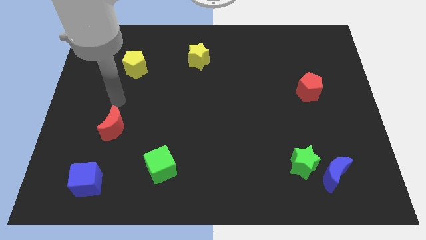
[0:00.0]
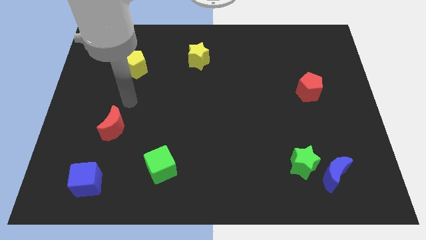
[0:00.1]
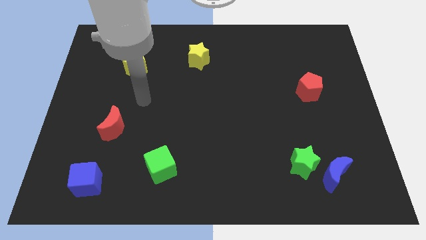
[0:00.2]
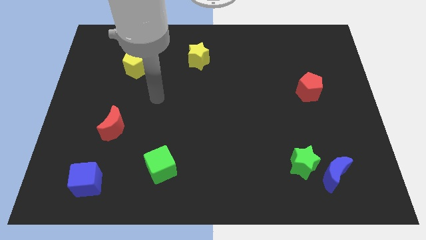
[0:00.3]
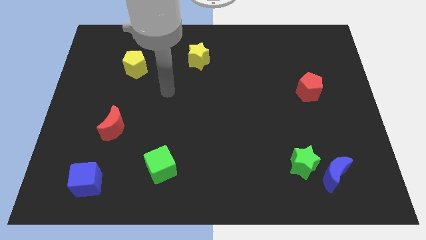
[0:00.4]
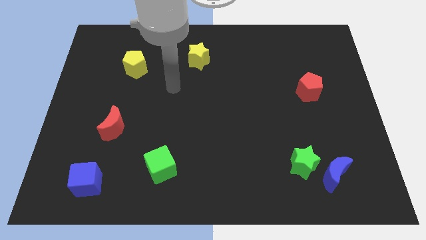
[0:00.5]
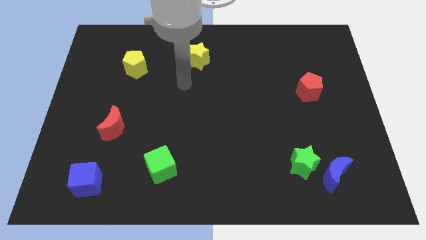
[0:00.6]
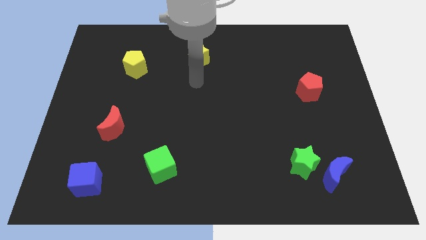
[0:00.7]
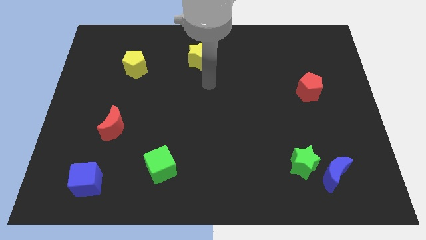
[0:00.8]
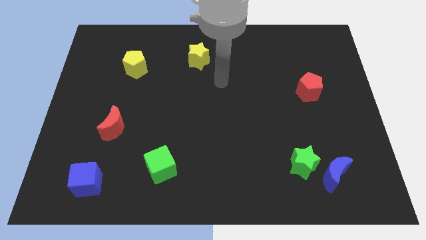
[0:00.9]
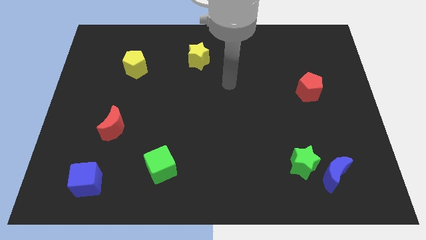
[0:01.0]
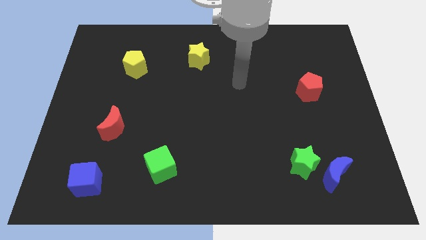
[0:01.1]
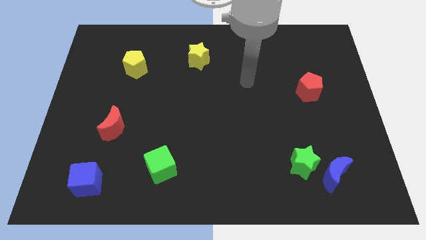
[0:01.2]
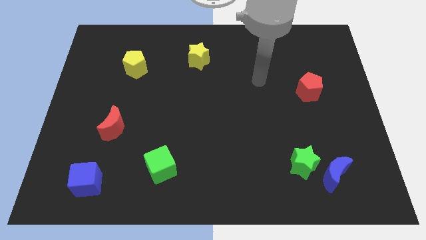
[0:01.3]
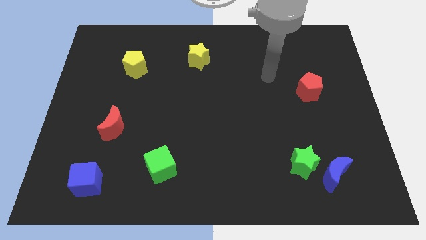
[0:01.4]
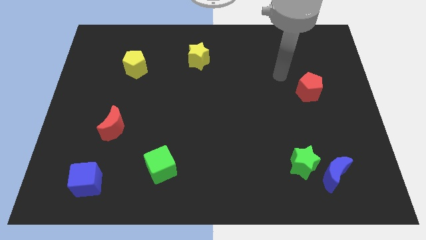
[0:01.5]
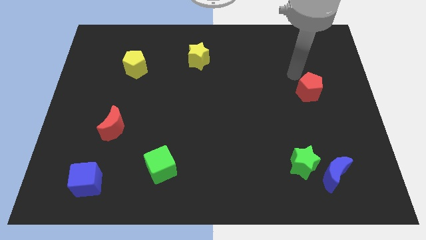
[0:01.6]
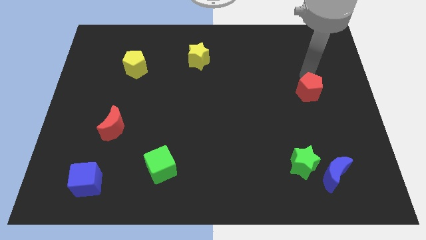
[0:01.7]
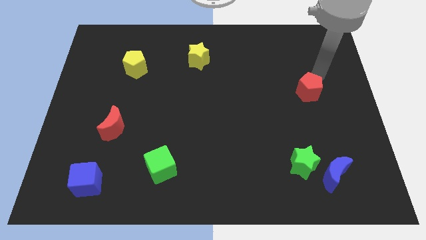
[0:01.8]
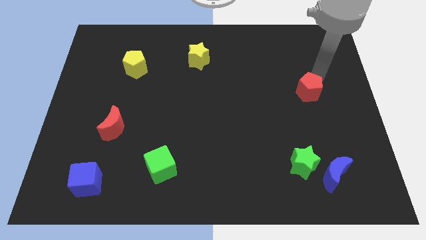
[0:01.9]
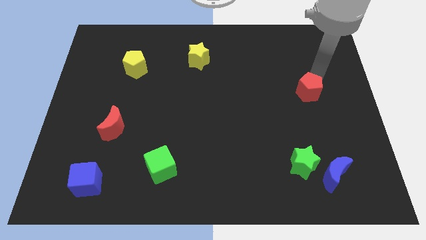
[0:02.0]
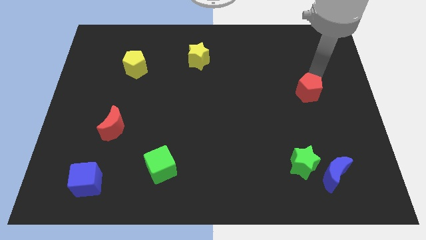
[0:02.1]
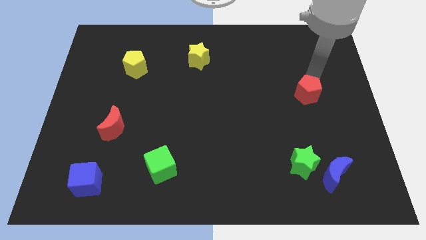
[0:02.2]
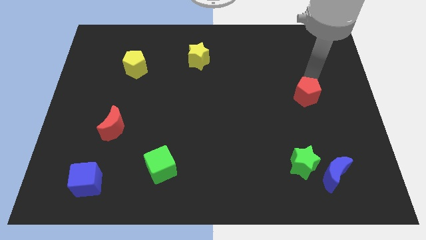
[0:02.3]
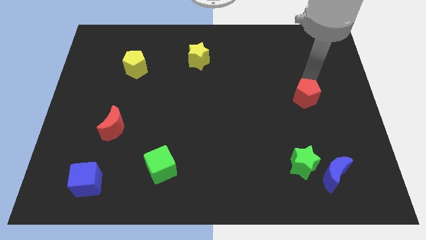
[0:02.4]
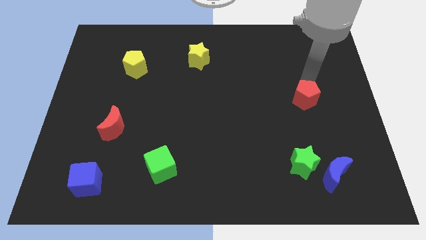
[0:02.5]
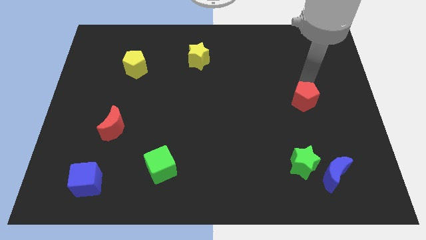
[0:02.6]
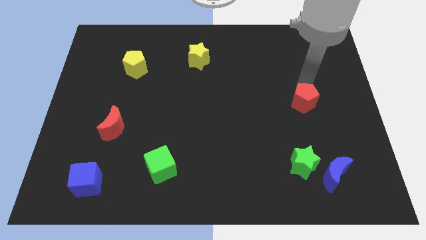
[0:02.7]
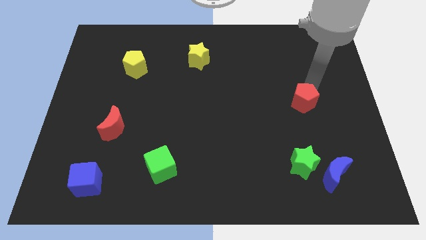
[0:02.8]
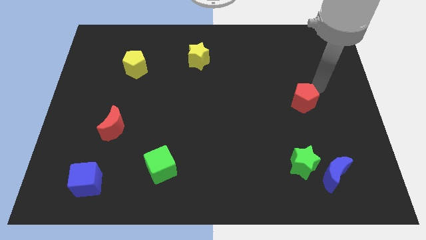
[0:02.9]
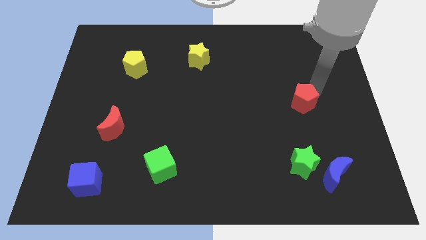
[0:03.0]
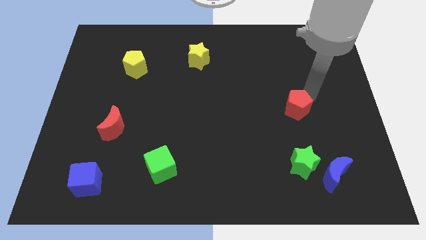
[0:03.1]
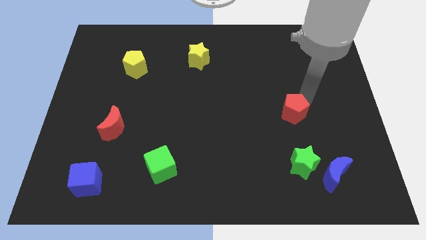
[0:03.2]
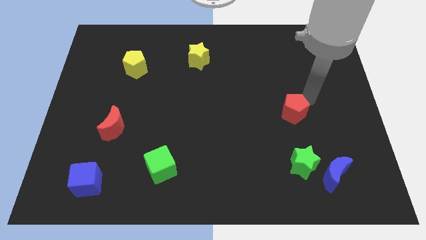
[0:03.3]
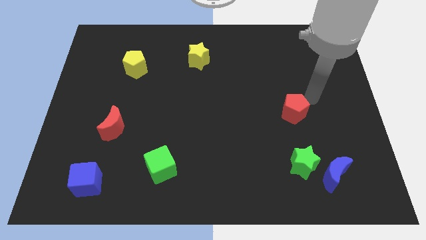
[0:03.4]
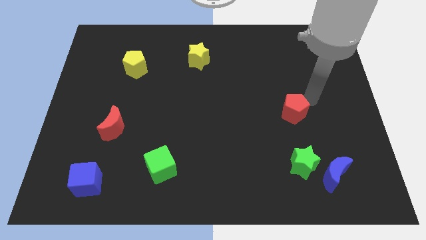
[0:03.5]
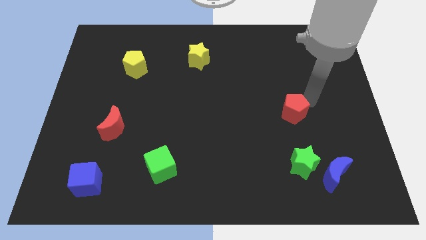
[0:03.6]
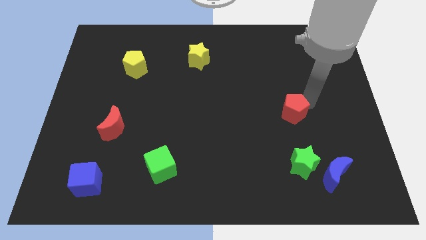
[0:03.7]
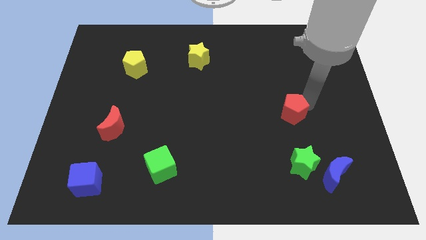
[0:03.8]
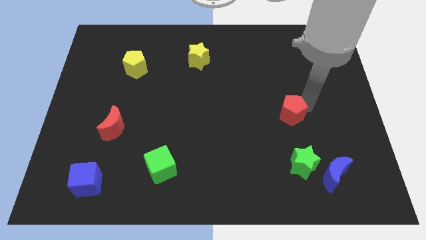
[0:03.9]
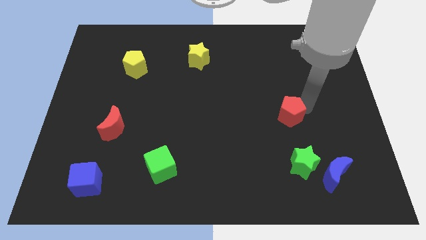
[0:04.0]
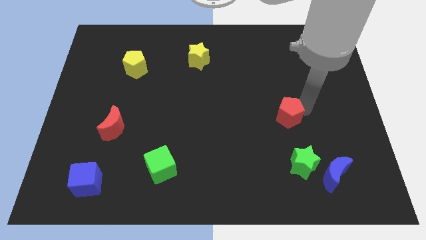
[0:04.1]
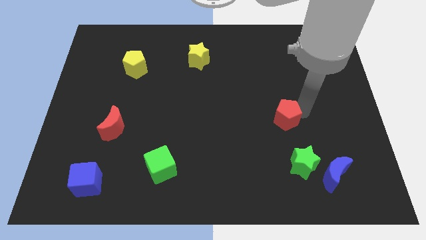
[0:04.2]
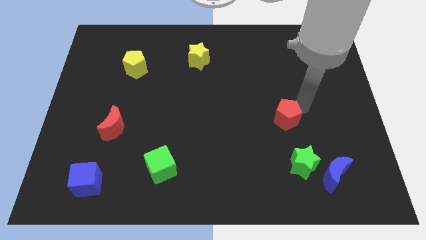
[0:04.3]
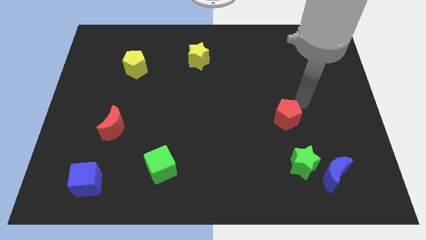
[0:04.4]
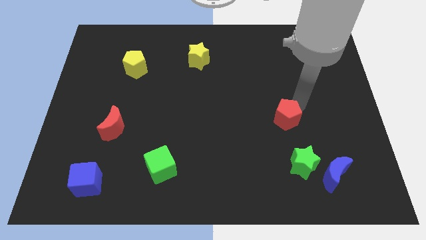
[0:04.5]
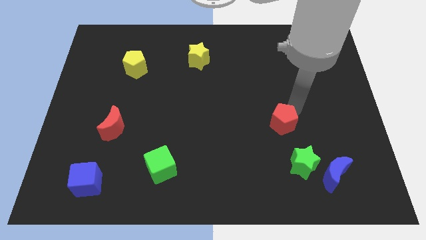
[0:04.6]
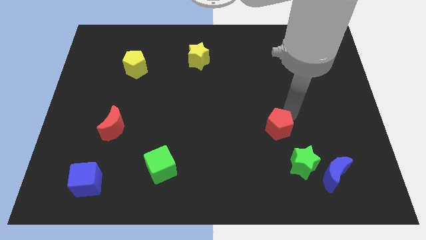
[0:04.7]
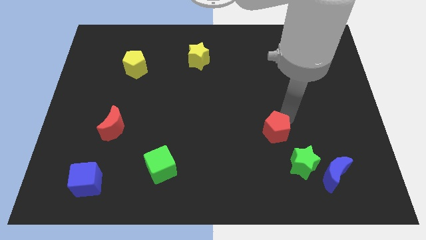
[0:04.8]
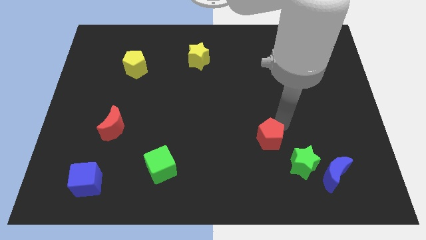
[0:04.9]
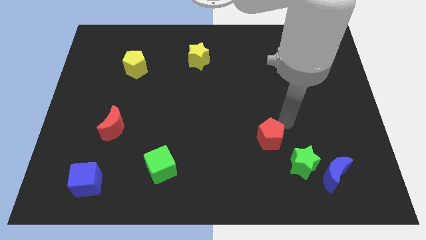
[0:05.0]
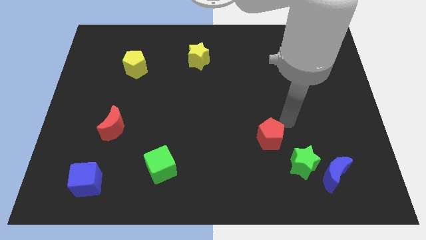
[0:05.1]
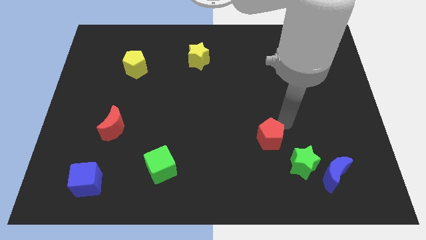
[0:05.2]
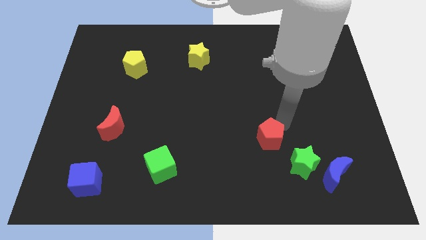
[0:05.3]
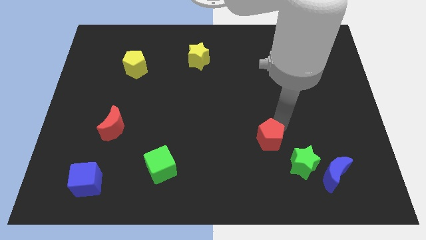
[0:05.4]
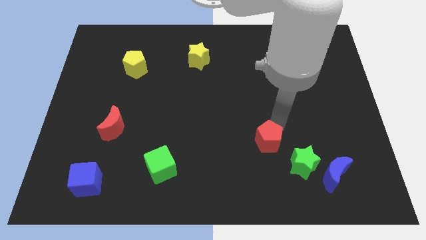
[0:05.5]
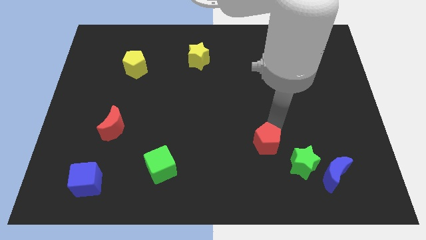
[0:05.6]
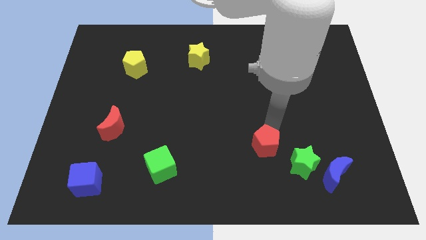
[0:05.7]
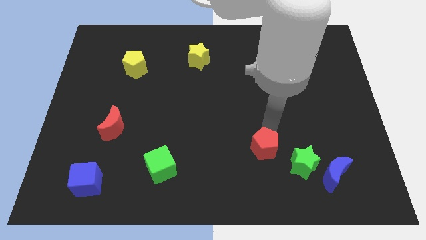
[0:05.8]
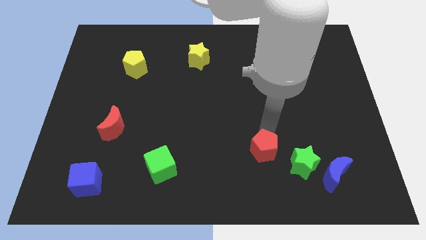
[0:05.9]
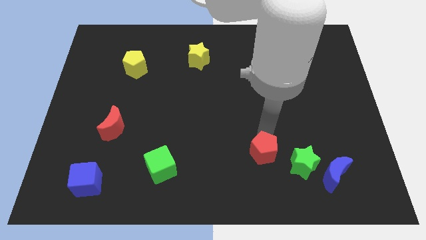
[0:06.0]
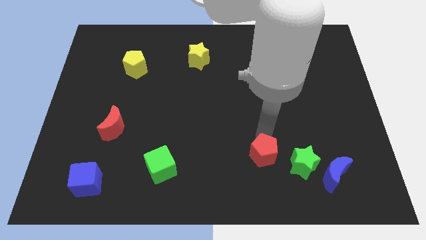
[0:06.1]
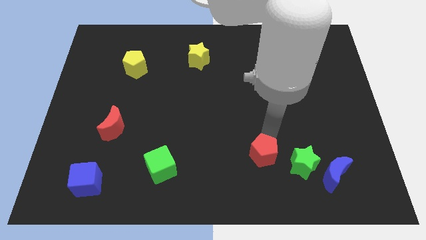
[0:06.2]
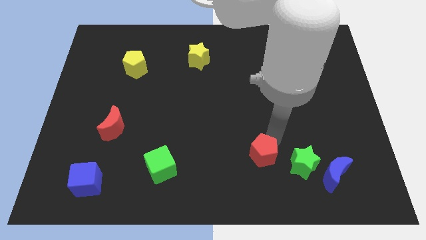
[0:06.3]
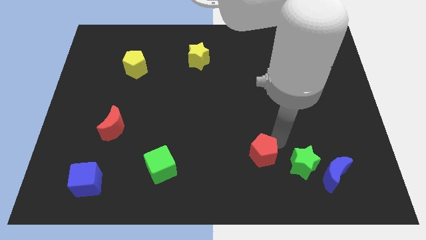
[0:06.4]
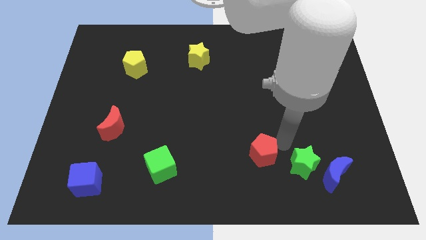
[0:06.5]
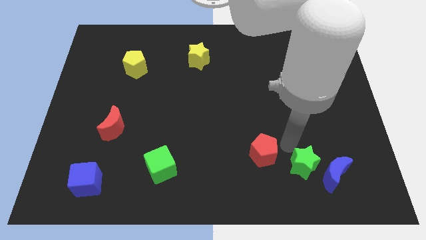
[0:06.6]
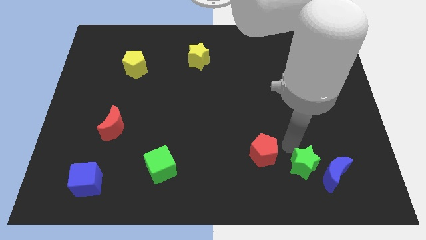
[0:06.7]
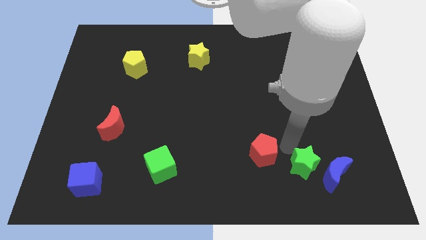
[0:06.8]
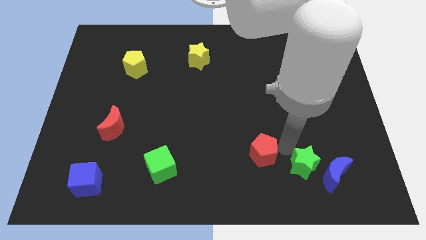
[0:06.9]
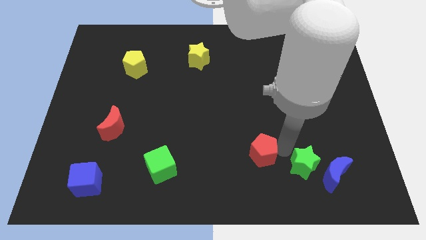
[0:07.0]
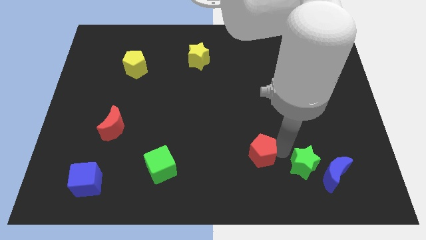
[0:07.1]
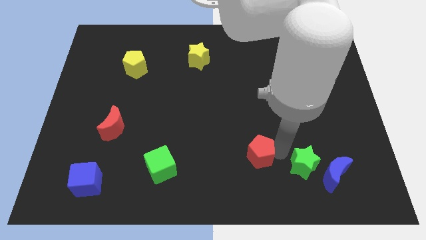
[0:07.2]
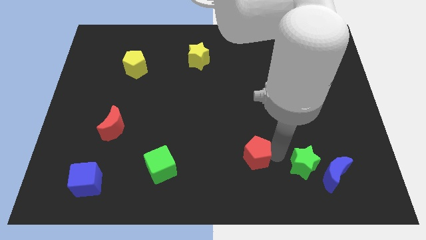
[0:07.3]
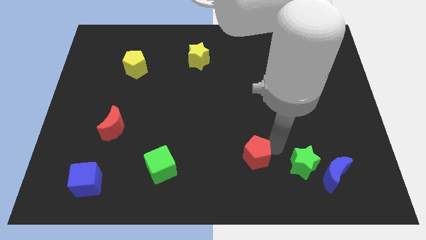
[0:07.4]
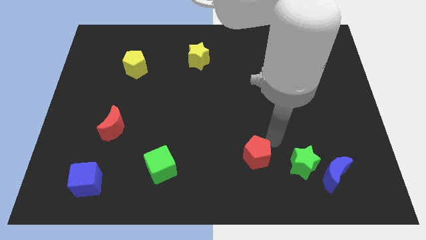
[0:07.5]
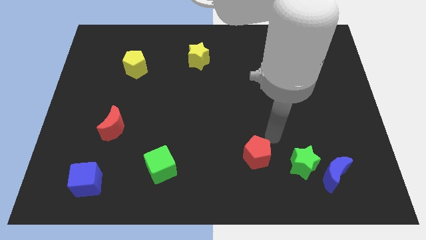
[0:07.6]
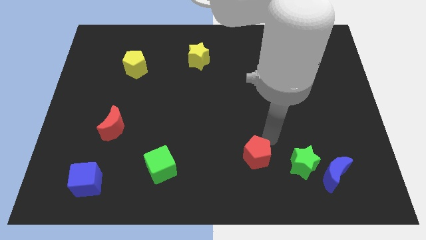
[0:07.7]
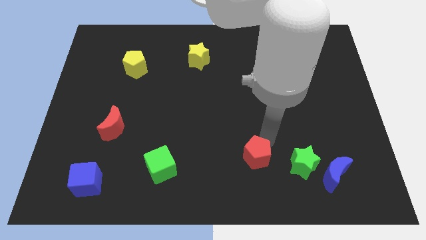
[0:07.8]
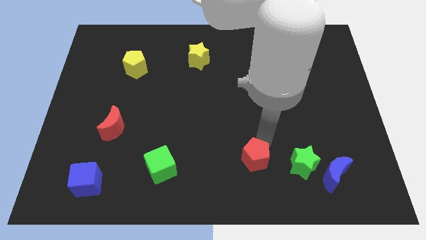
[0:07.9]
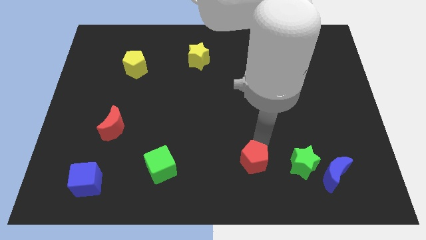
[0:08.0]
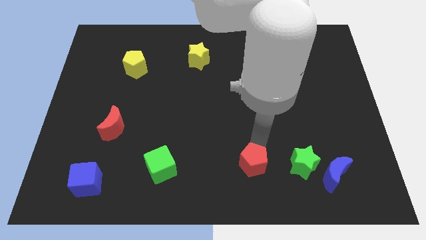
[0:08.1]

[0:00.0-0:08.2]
move the red pentagon to the bottom
